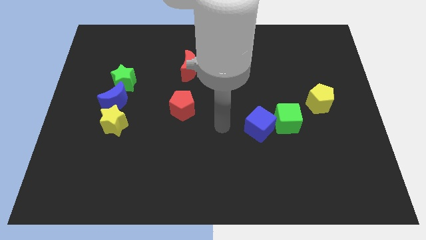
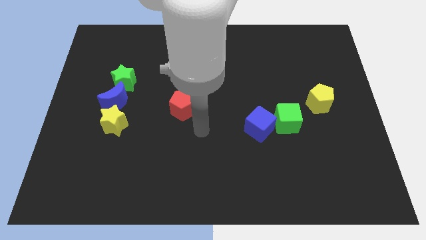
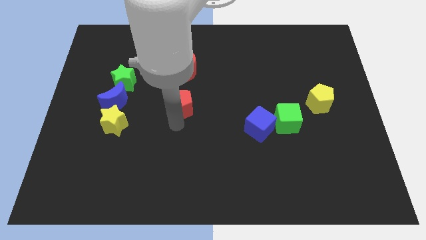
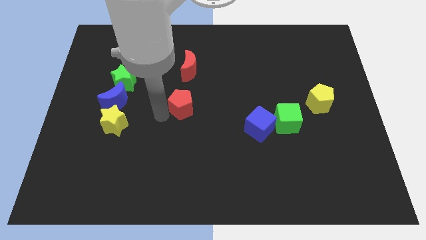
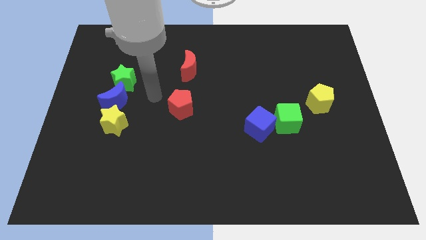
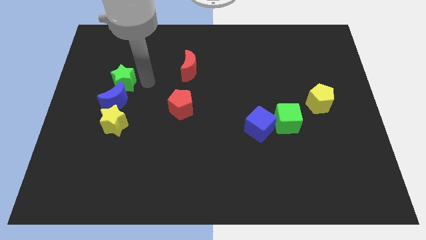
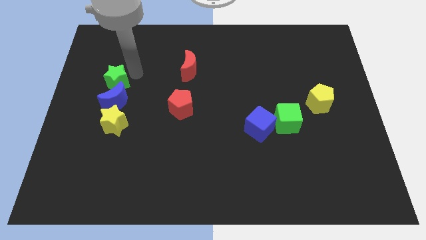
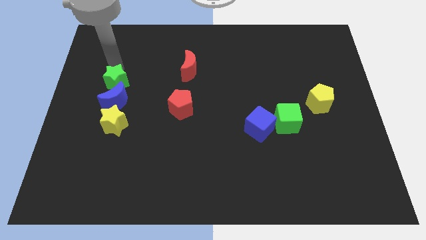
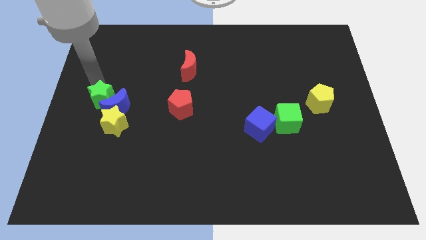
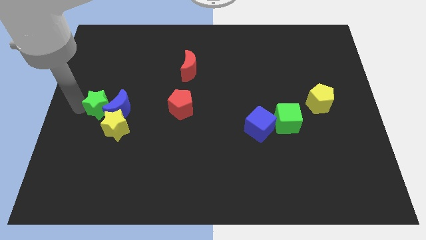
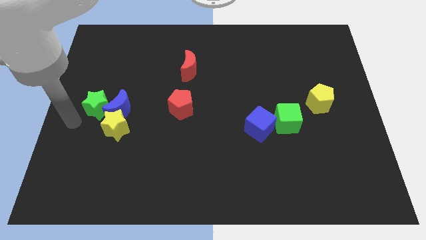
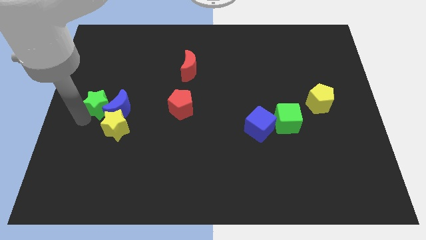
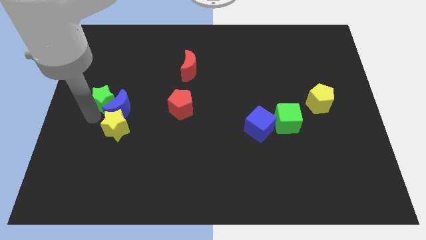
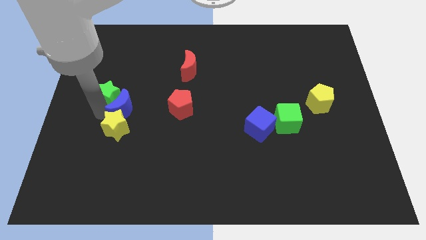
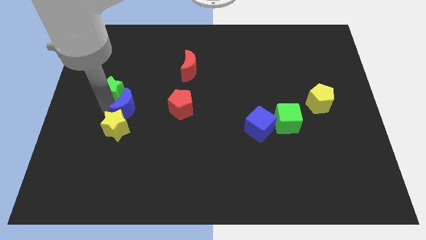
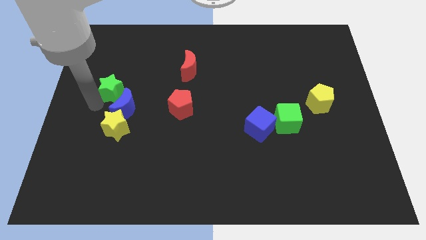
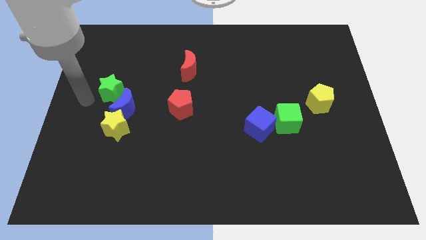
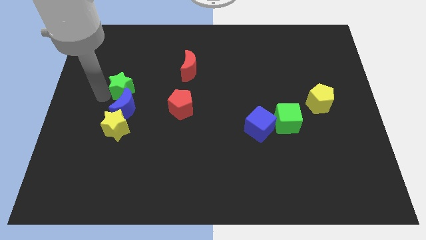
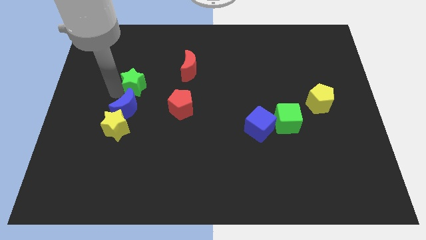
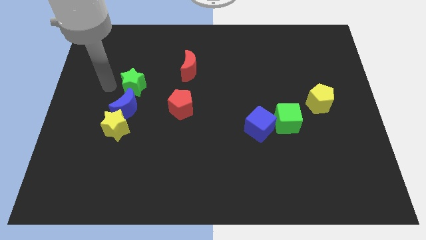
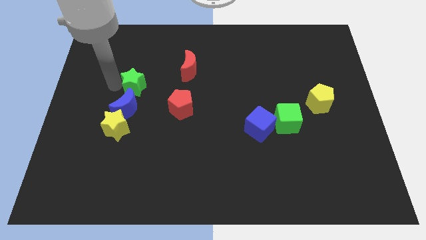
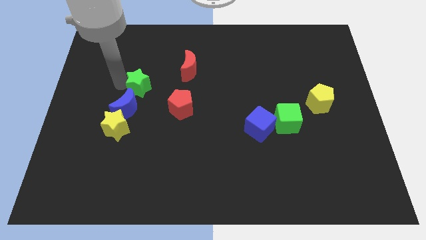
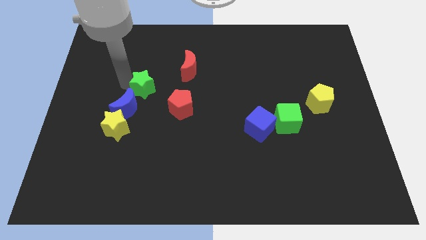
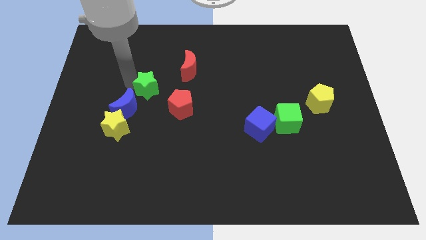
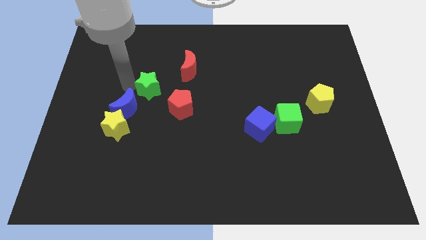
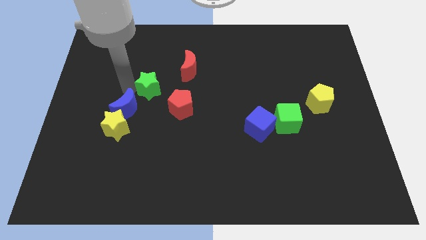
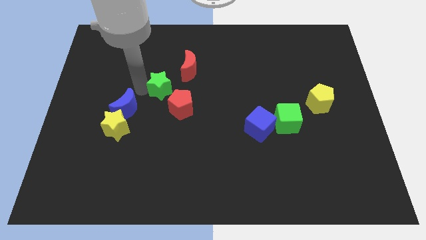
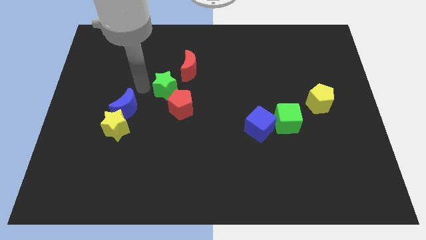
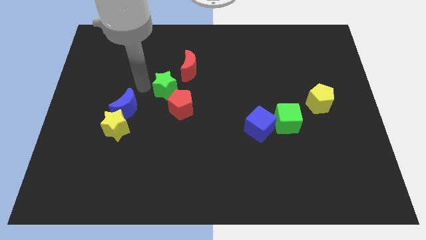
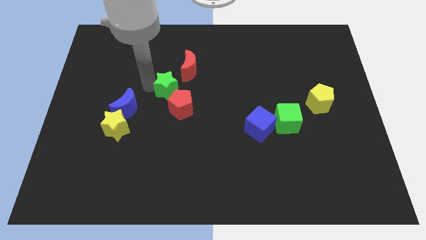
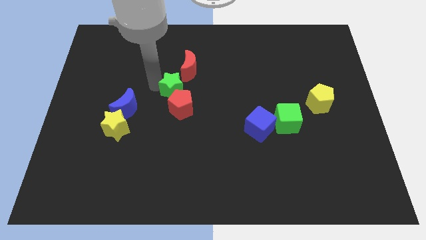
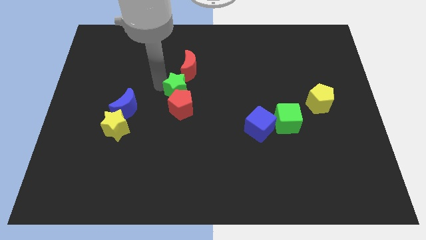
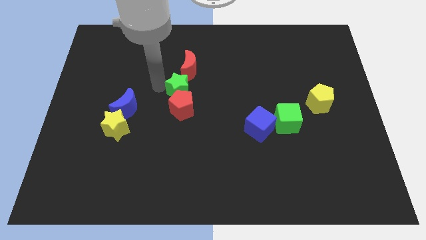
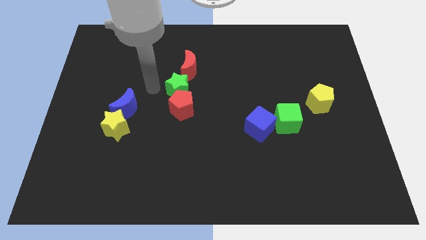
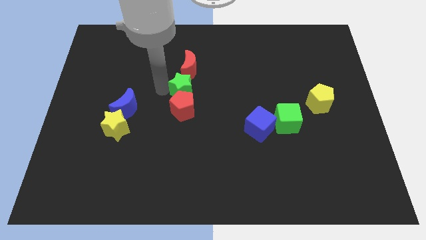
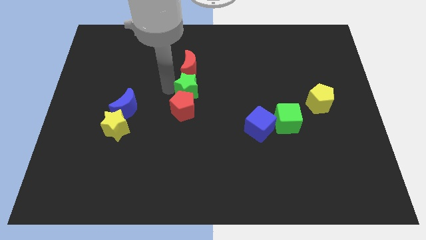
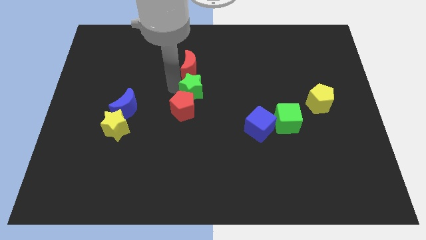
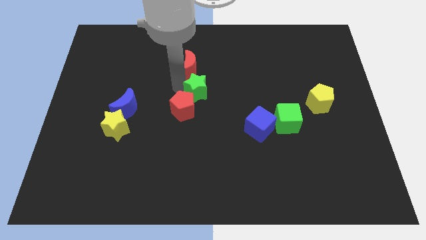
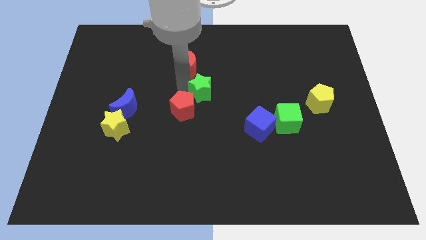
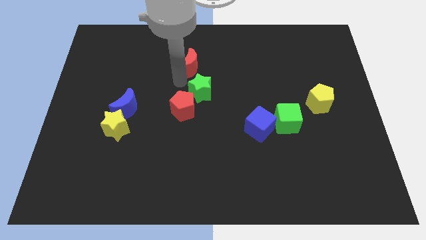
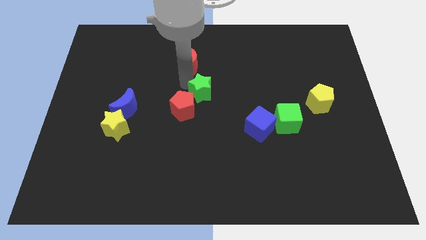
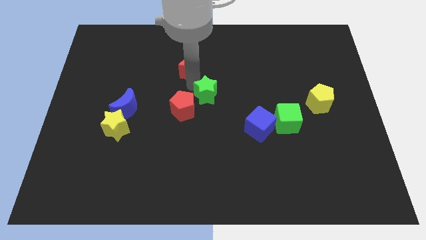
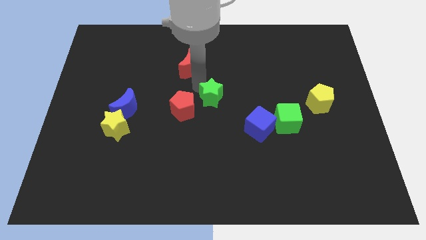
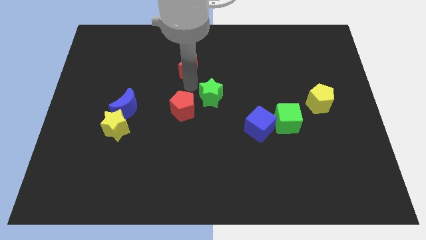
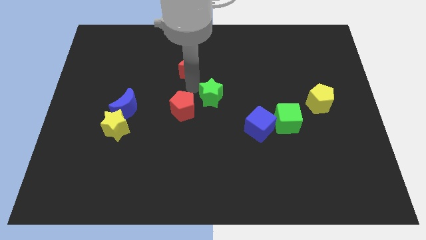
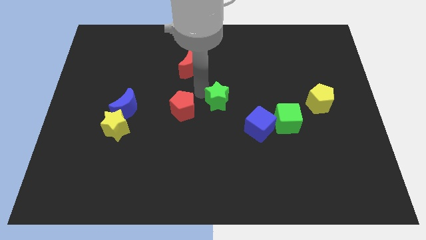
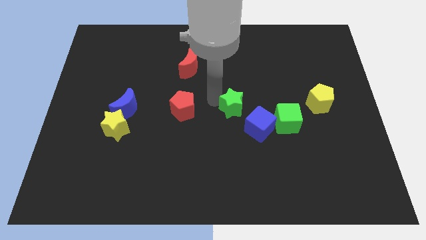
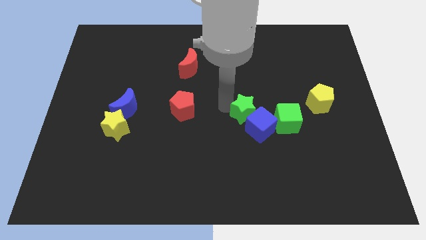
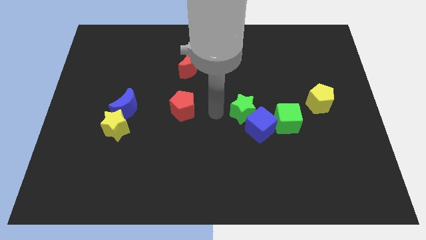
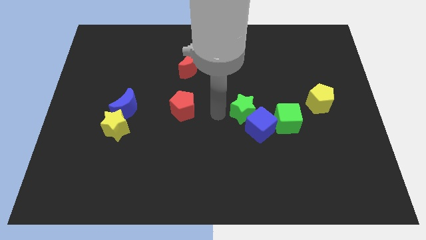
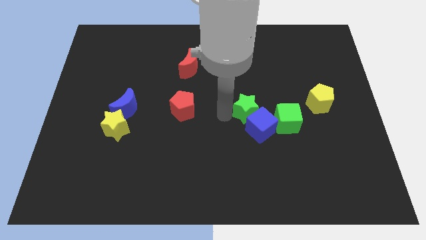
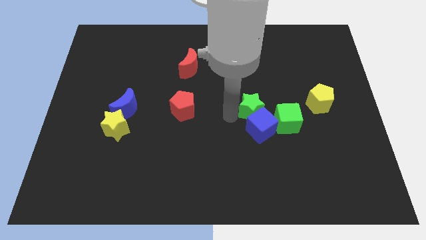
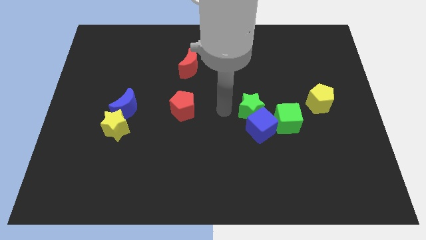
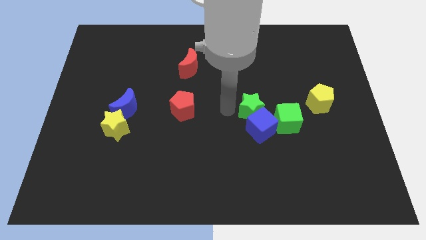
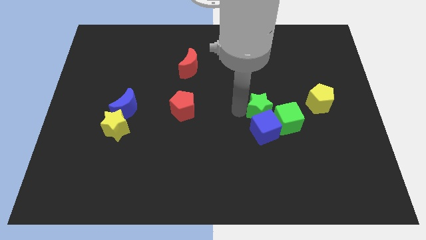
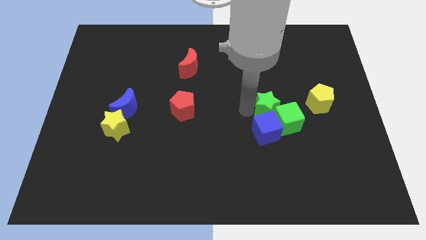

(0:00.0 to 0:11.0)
slide the green star to the green cube

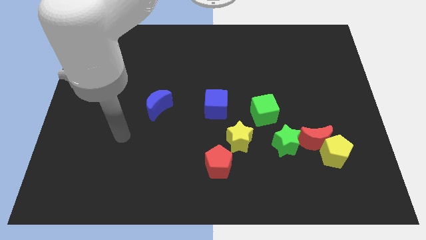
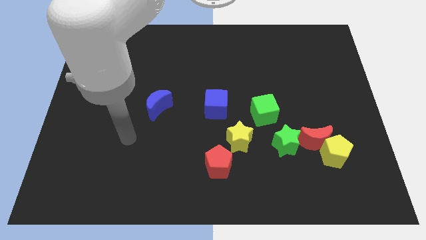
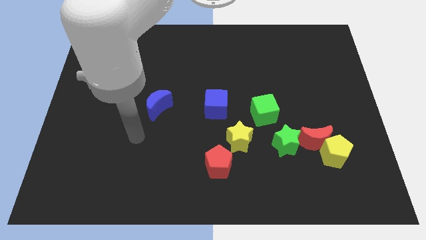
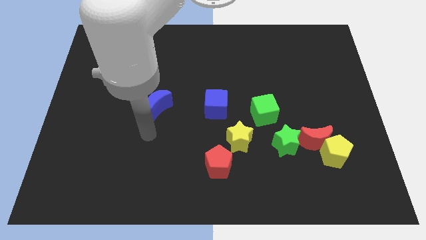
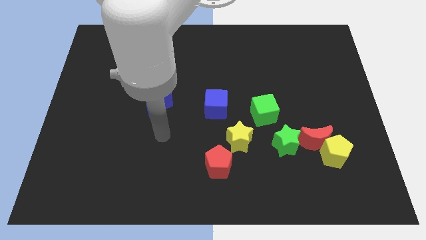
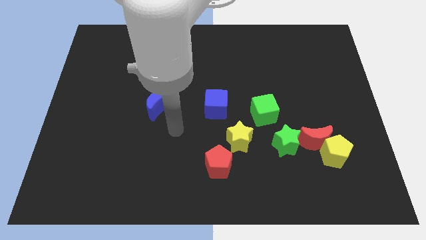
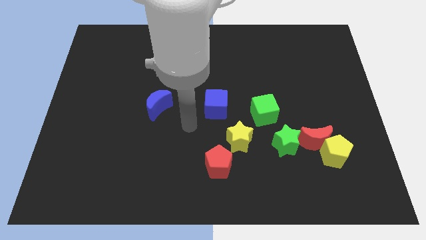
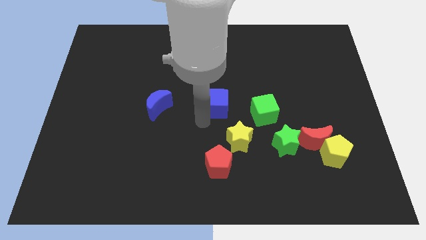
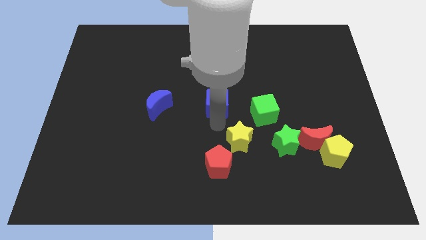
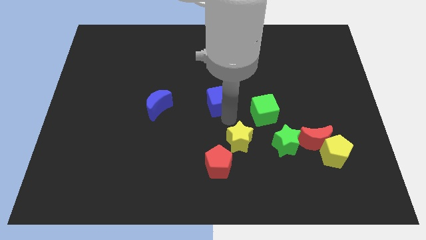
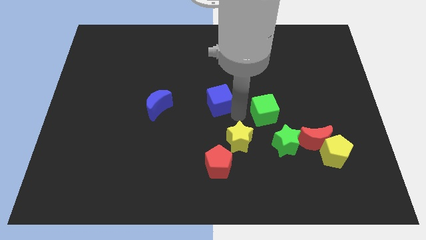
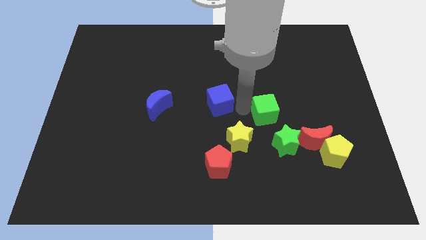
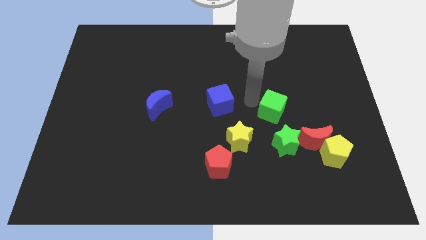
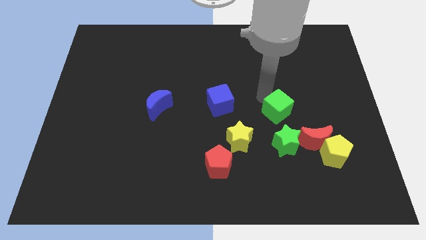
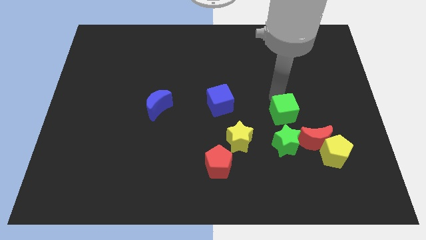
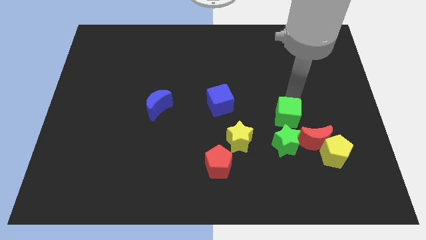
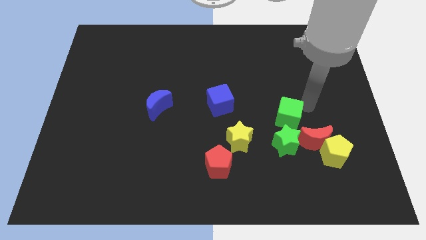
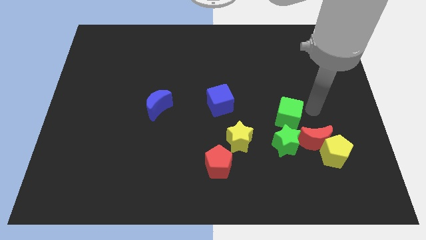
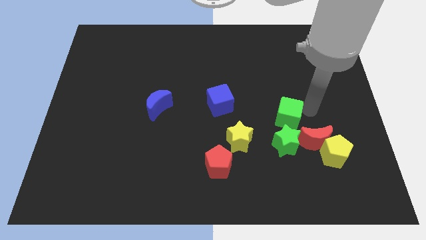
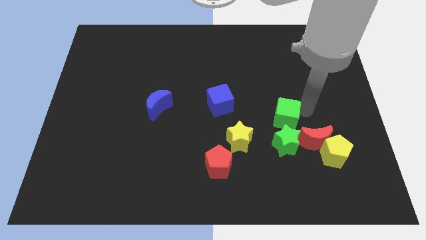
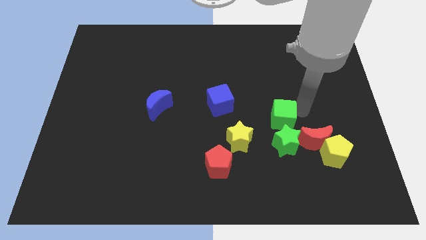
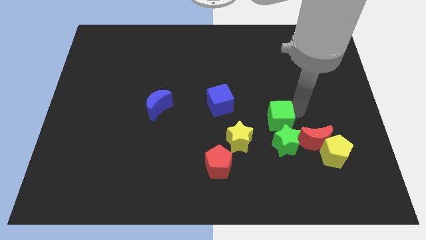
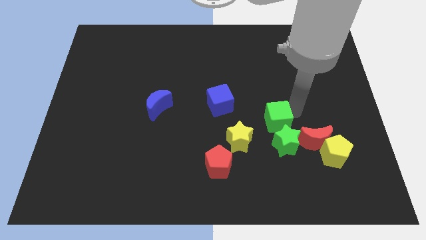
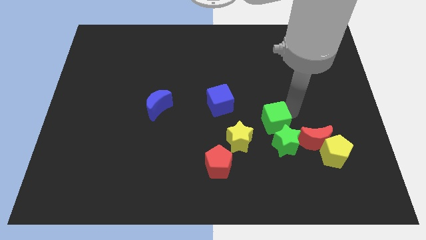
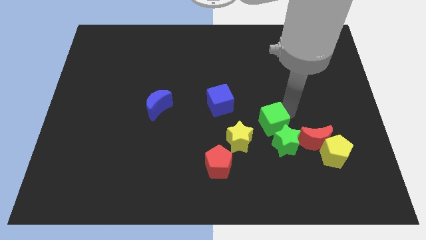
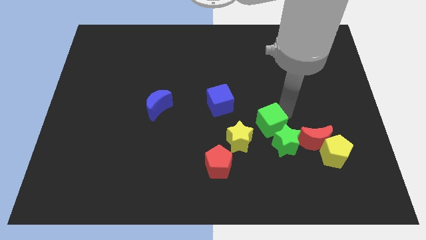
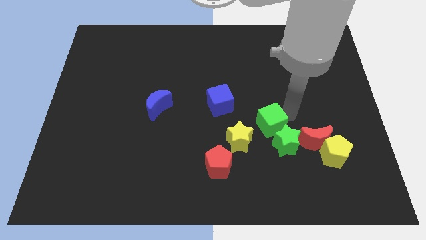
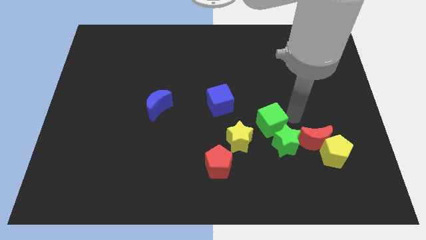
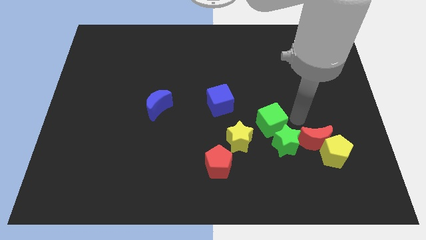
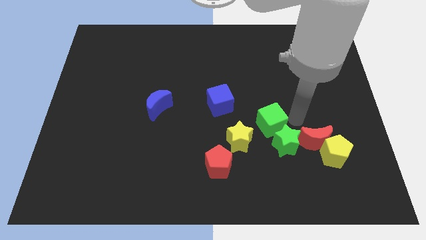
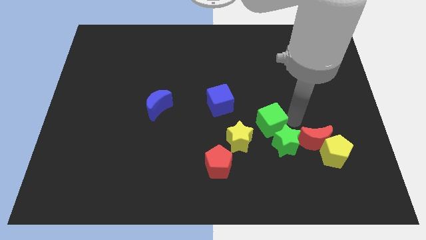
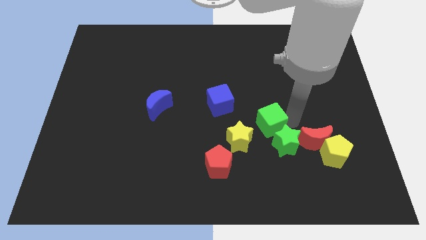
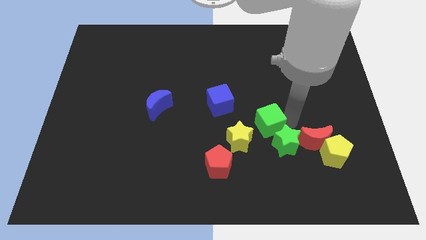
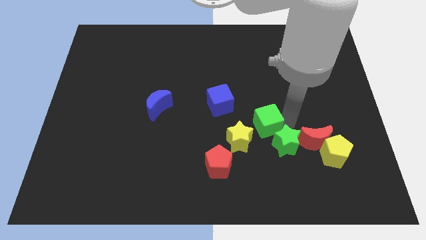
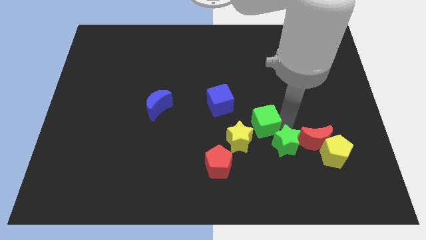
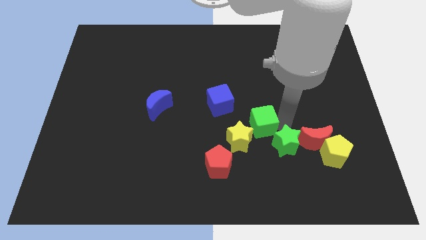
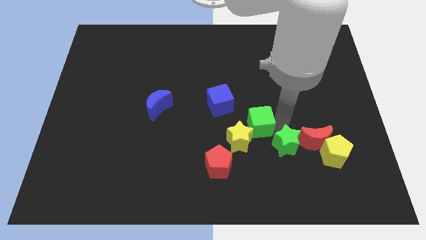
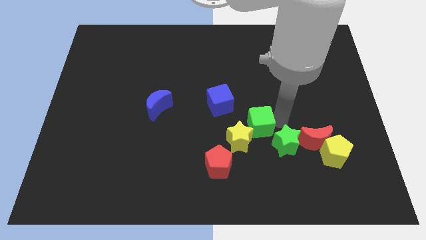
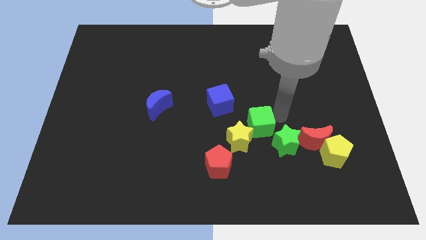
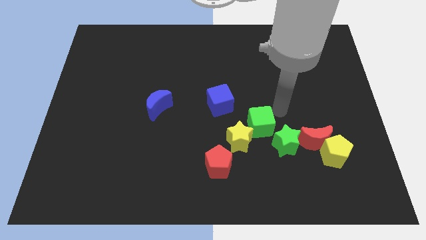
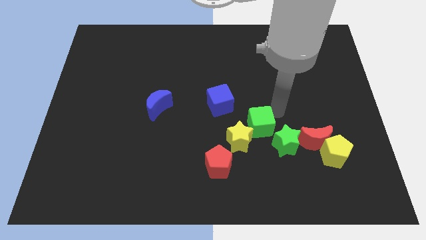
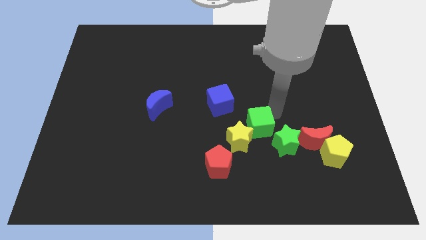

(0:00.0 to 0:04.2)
put the green cube towards the yellow star
